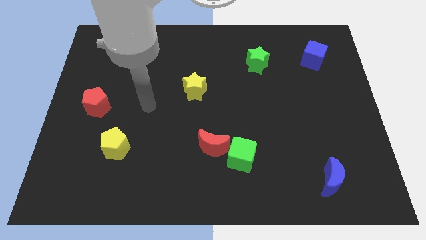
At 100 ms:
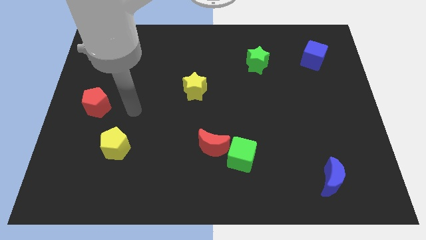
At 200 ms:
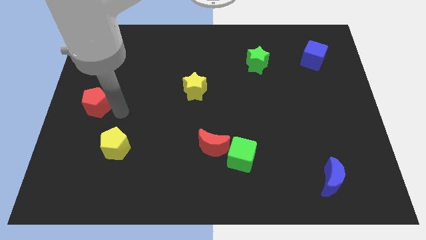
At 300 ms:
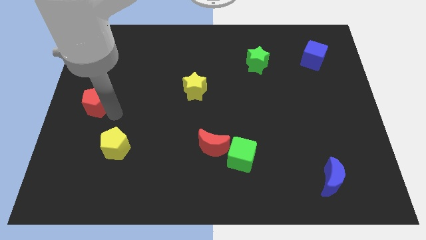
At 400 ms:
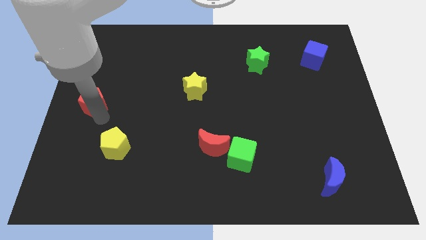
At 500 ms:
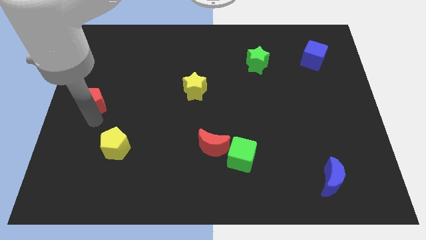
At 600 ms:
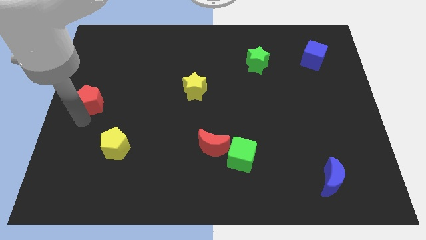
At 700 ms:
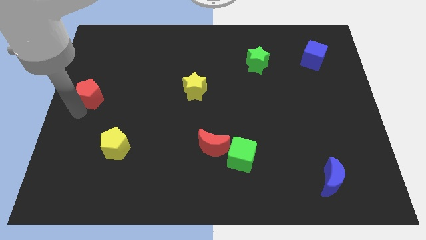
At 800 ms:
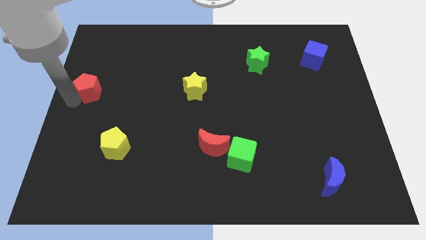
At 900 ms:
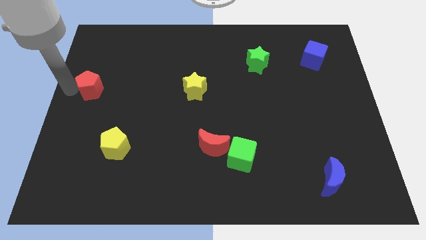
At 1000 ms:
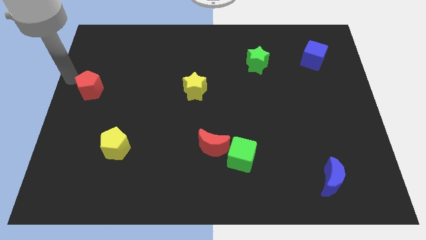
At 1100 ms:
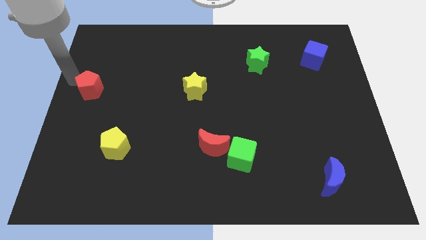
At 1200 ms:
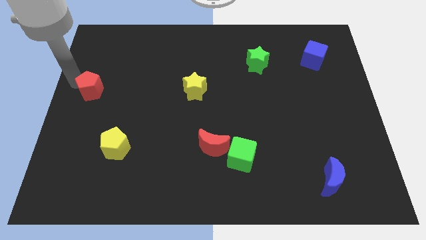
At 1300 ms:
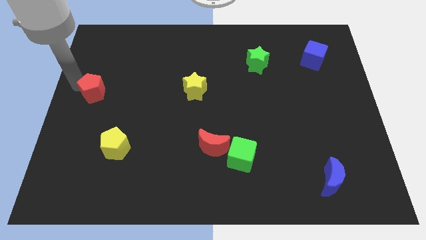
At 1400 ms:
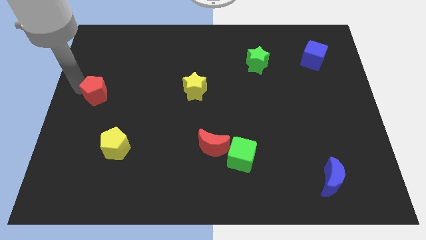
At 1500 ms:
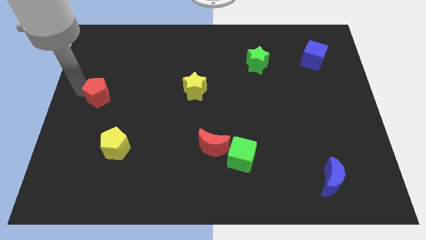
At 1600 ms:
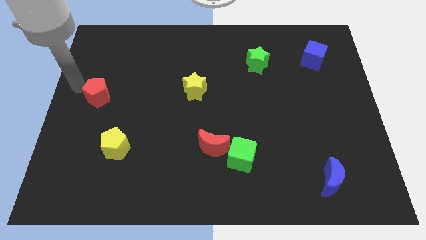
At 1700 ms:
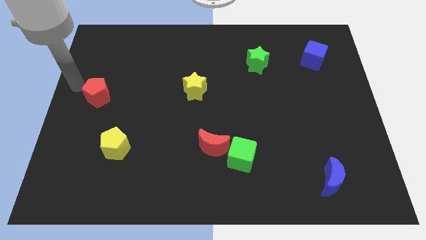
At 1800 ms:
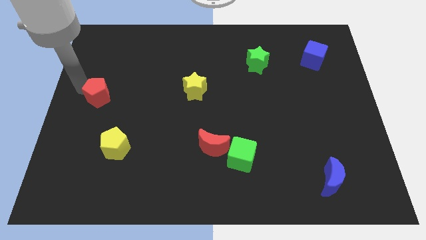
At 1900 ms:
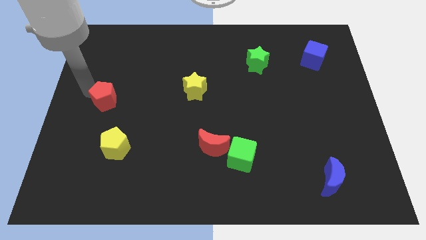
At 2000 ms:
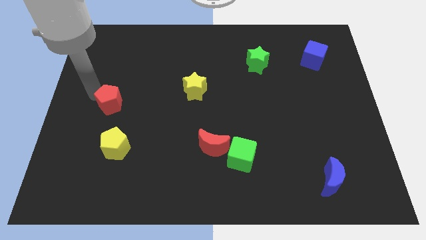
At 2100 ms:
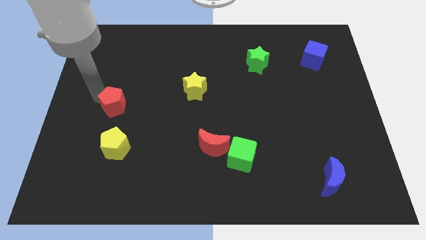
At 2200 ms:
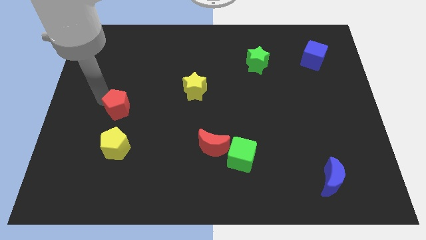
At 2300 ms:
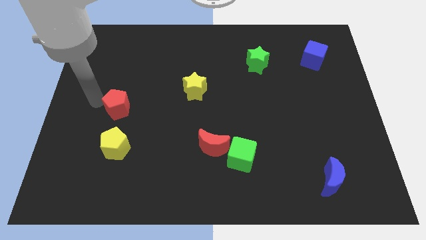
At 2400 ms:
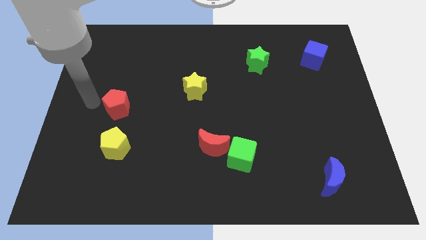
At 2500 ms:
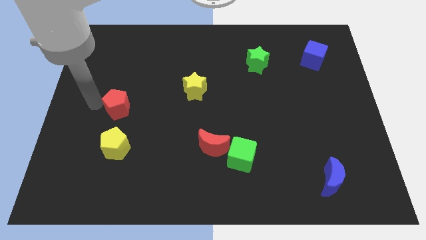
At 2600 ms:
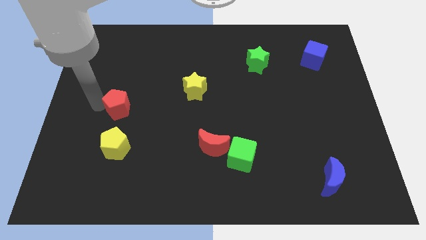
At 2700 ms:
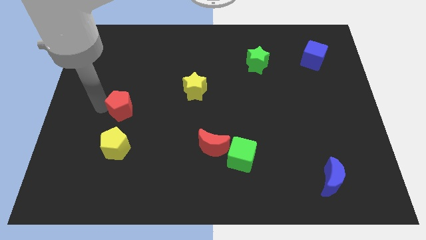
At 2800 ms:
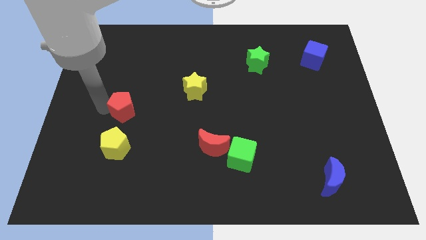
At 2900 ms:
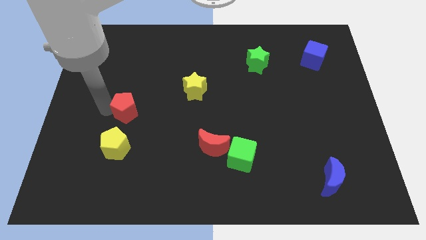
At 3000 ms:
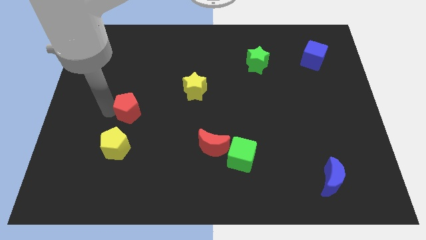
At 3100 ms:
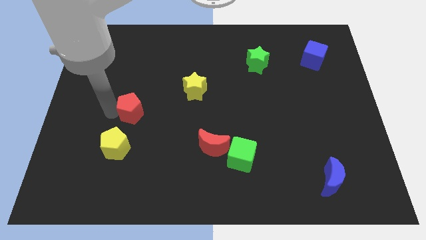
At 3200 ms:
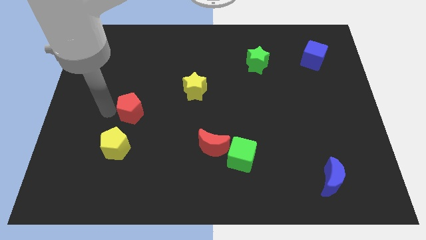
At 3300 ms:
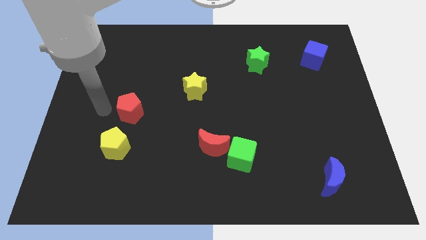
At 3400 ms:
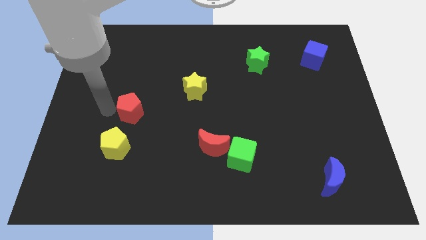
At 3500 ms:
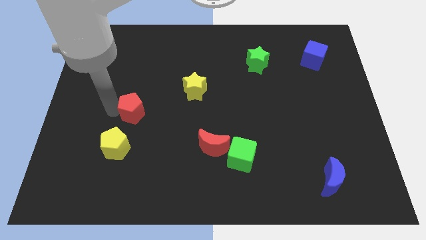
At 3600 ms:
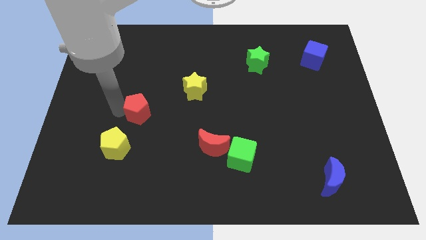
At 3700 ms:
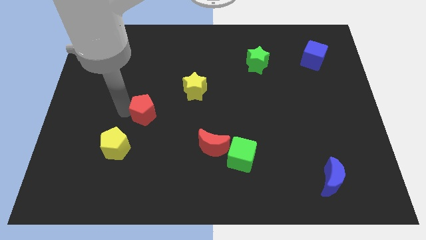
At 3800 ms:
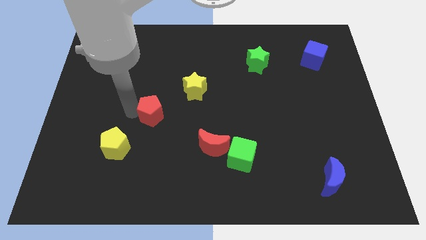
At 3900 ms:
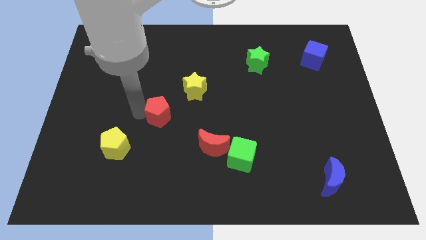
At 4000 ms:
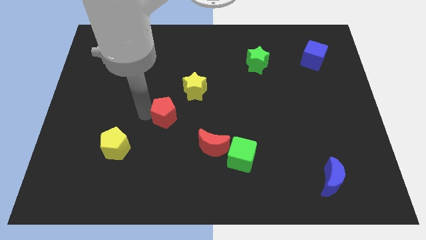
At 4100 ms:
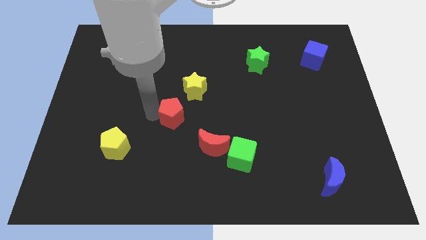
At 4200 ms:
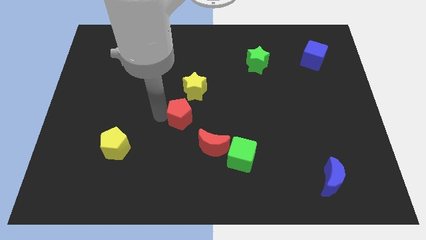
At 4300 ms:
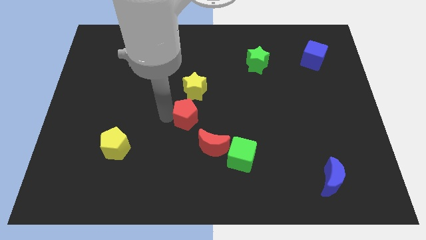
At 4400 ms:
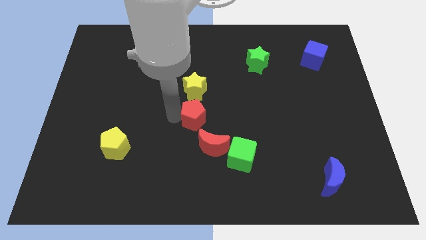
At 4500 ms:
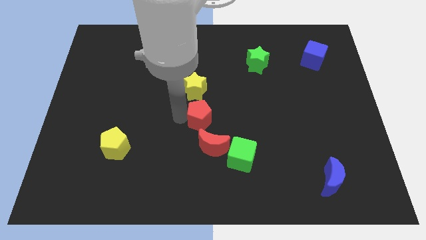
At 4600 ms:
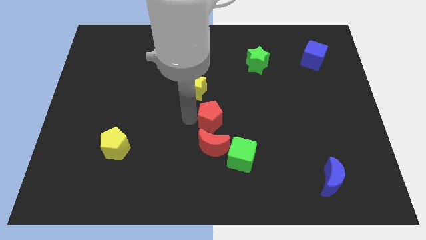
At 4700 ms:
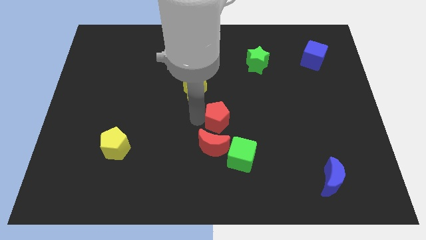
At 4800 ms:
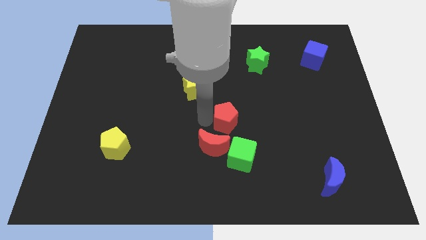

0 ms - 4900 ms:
put the red pentagon to the top side of the green cube

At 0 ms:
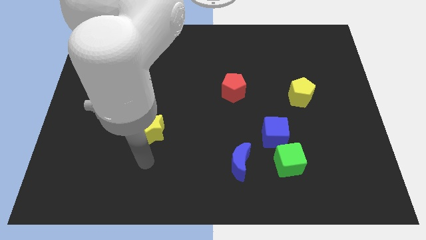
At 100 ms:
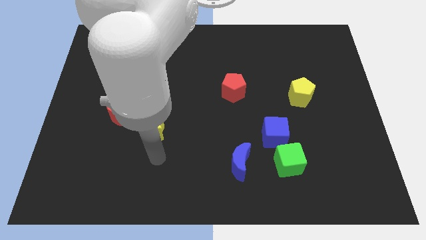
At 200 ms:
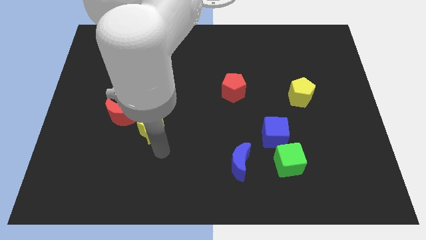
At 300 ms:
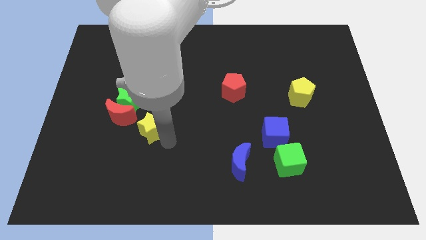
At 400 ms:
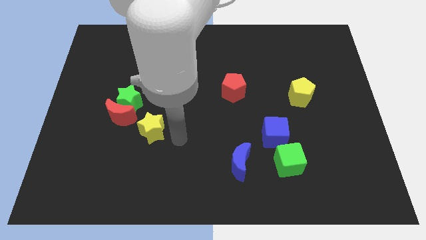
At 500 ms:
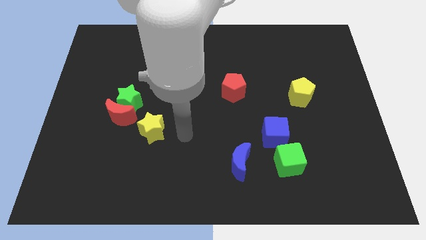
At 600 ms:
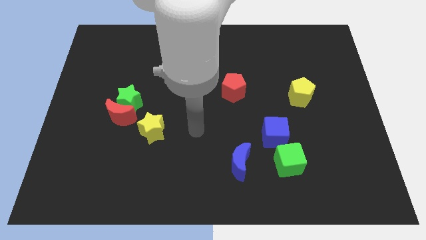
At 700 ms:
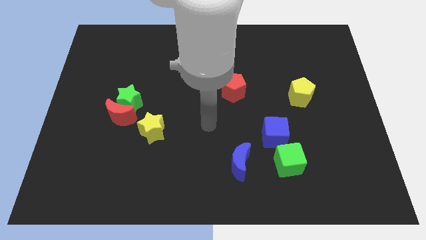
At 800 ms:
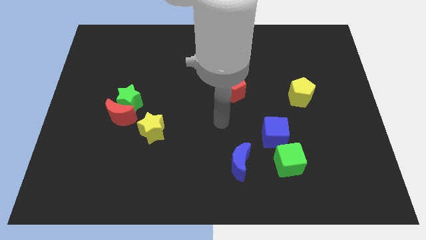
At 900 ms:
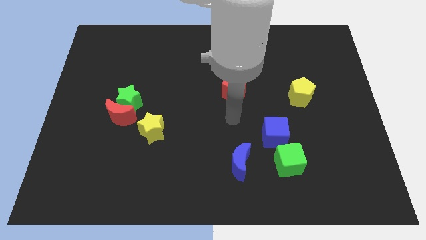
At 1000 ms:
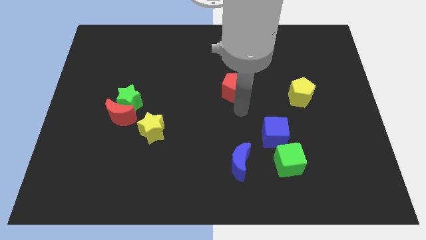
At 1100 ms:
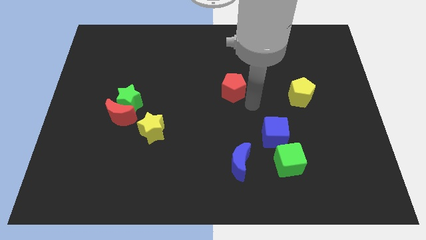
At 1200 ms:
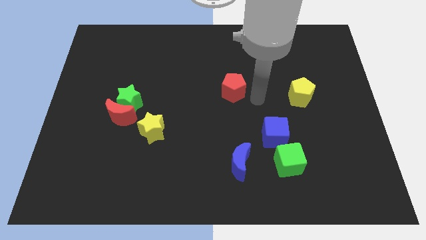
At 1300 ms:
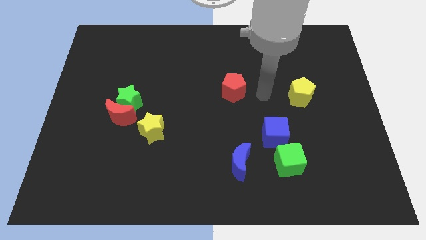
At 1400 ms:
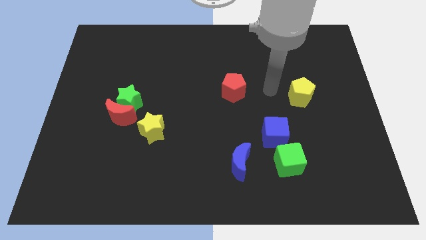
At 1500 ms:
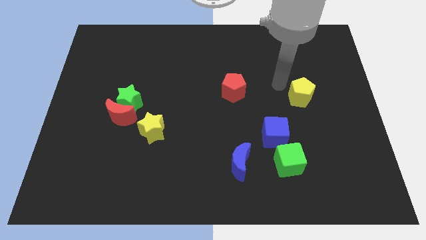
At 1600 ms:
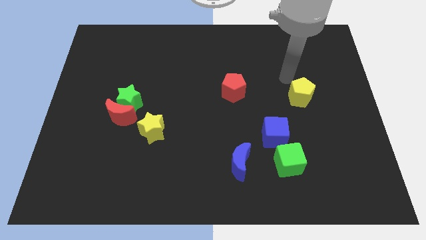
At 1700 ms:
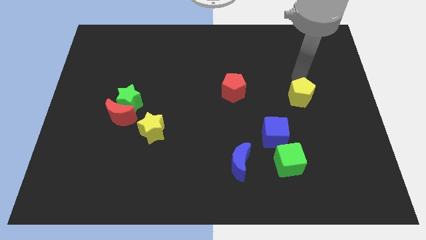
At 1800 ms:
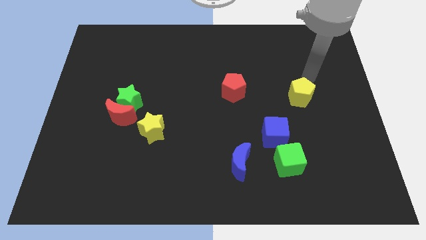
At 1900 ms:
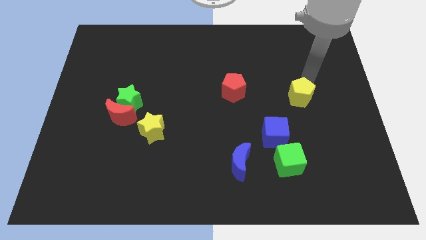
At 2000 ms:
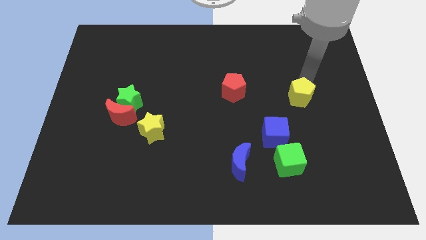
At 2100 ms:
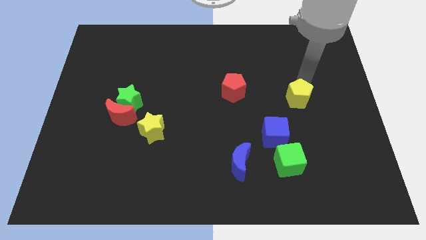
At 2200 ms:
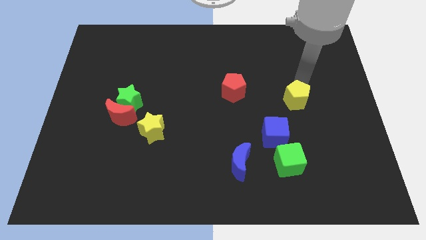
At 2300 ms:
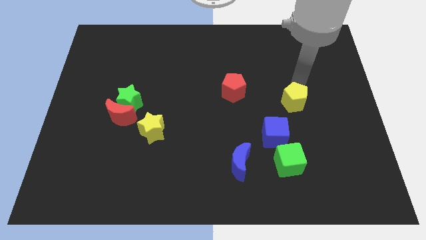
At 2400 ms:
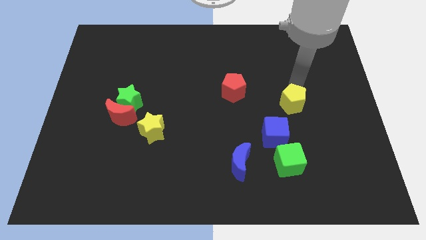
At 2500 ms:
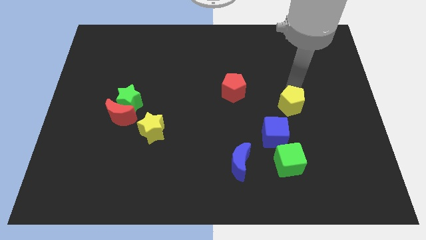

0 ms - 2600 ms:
push the yellow pentagon above the green cube
